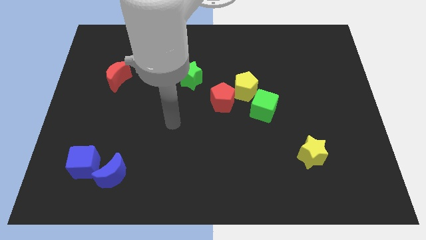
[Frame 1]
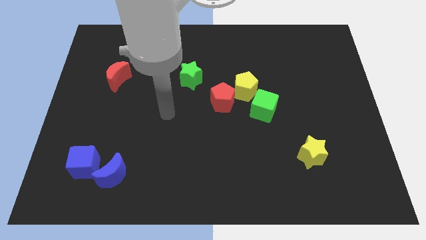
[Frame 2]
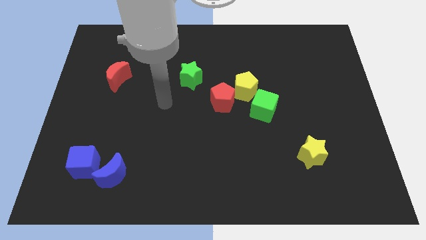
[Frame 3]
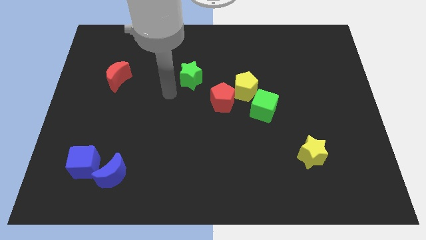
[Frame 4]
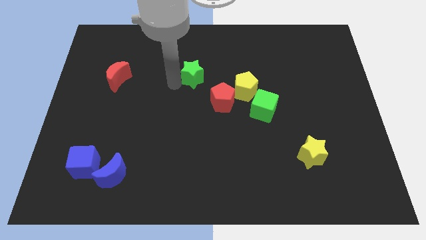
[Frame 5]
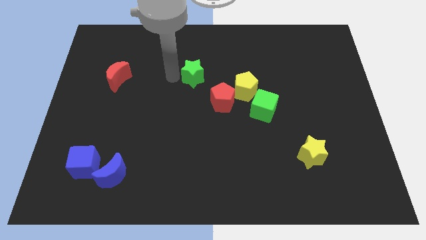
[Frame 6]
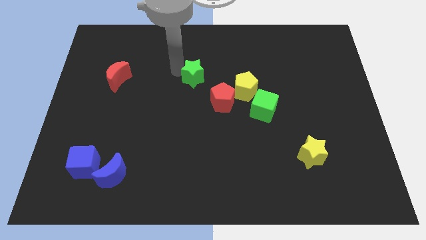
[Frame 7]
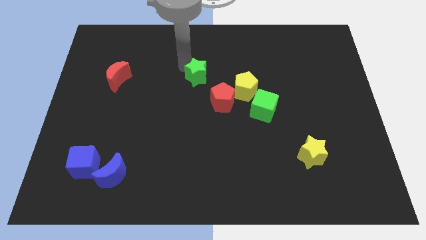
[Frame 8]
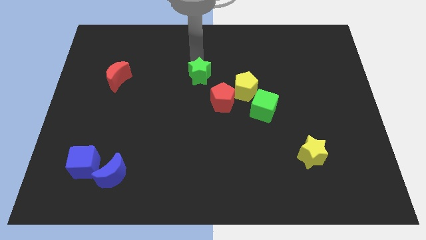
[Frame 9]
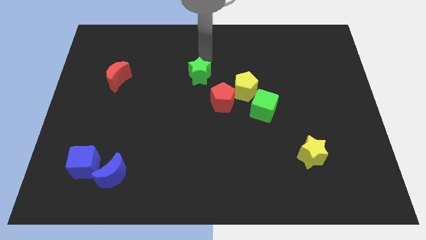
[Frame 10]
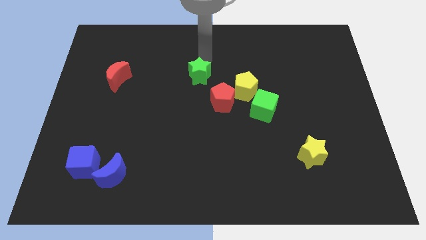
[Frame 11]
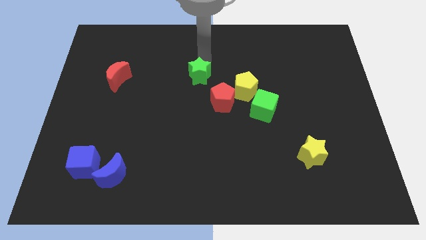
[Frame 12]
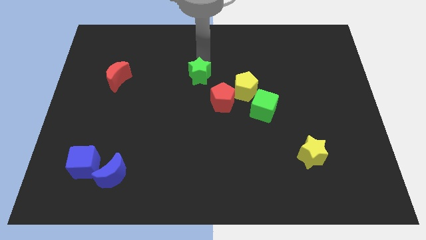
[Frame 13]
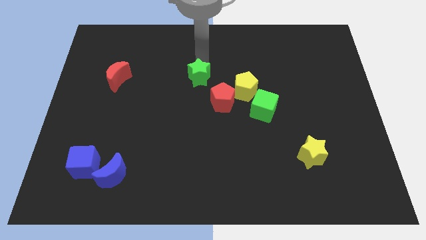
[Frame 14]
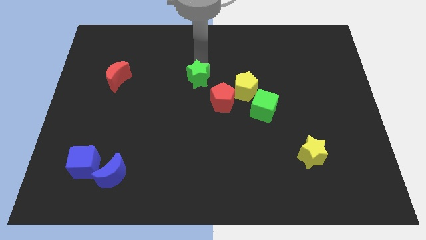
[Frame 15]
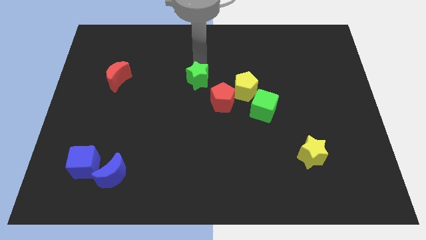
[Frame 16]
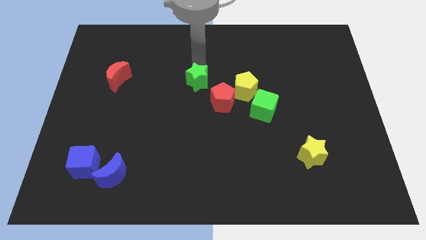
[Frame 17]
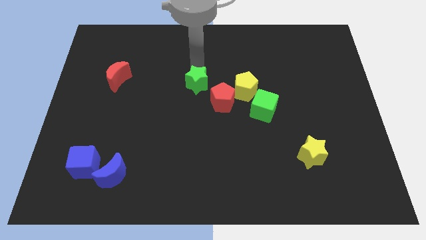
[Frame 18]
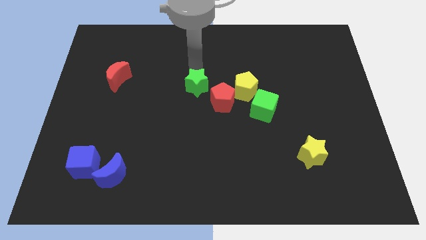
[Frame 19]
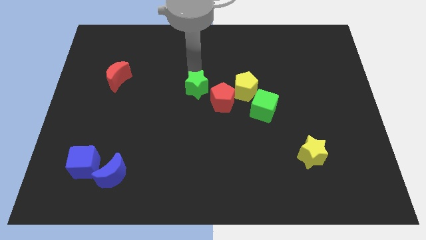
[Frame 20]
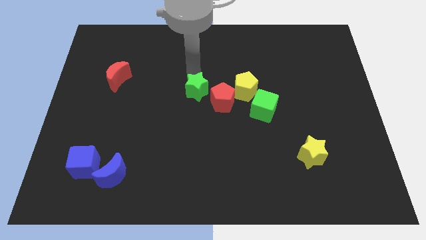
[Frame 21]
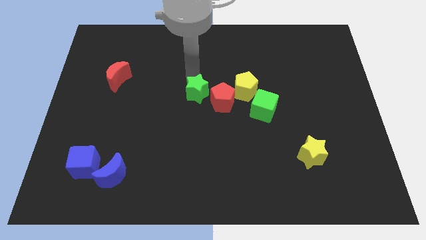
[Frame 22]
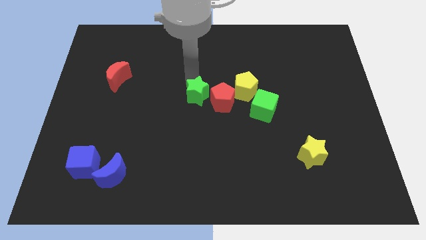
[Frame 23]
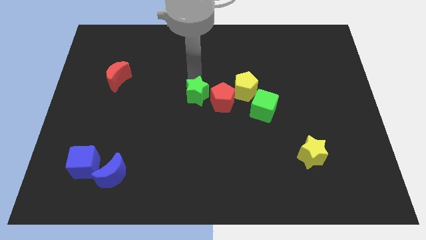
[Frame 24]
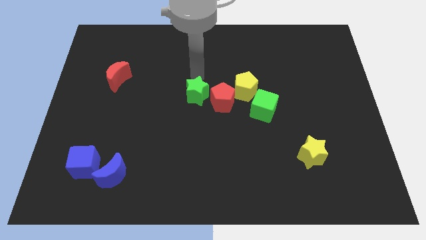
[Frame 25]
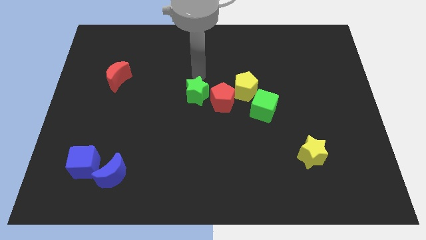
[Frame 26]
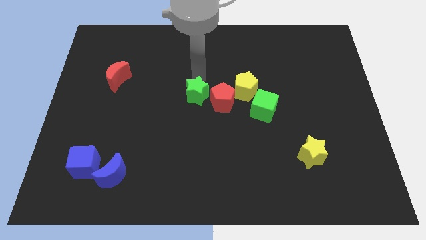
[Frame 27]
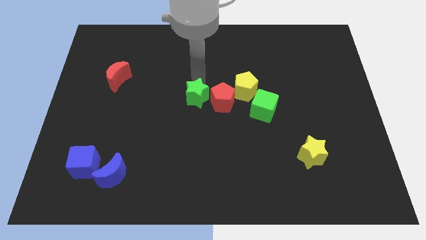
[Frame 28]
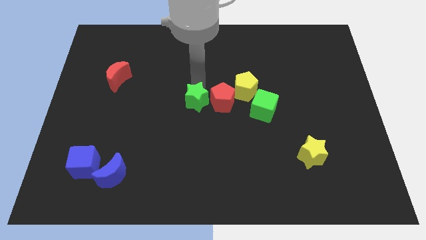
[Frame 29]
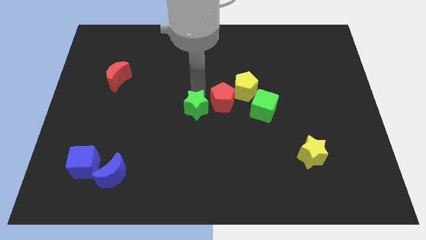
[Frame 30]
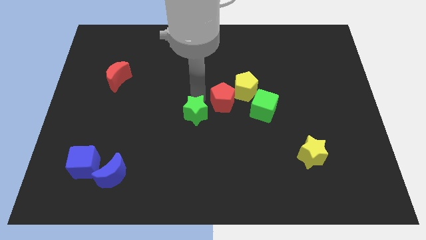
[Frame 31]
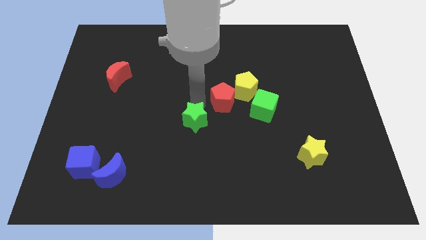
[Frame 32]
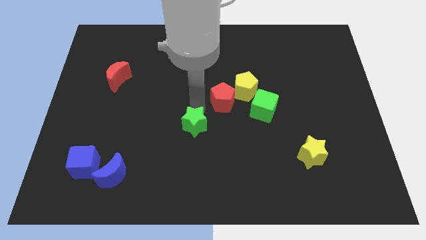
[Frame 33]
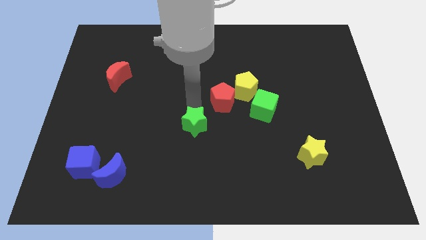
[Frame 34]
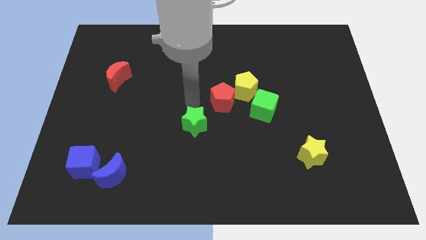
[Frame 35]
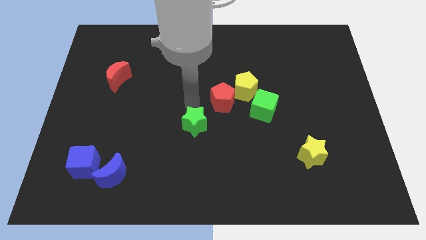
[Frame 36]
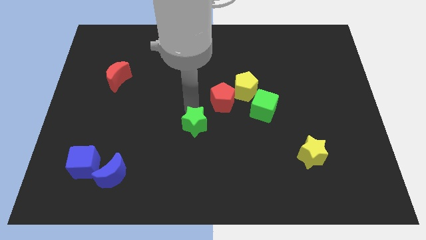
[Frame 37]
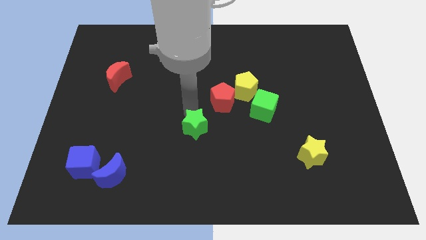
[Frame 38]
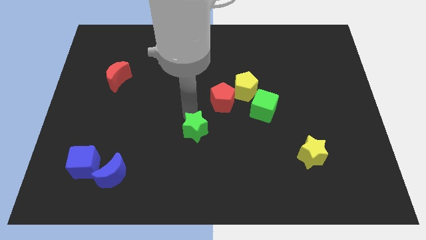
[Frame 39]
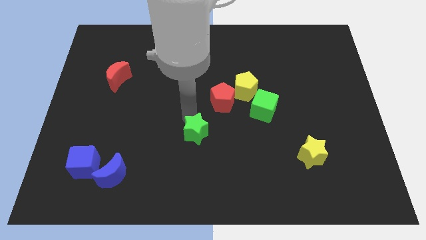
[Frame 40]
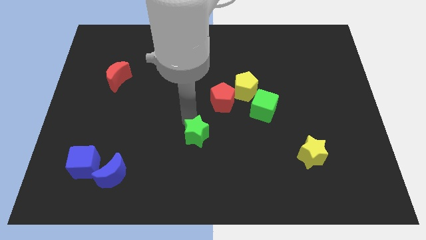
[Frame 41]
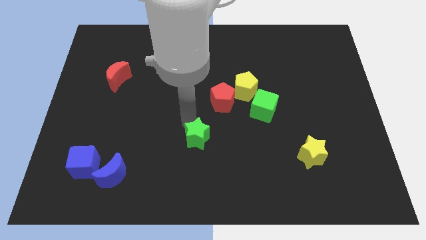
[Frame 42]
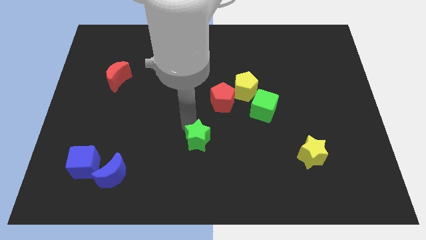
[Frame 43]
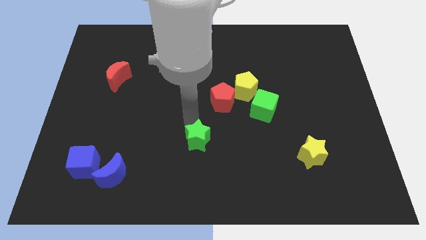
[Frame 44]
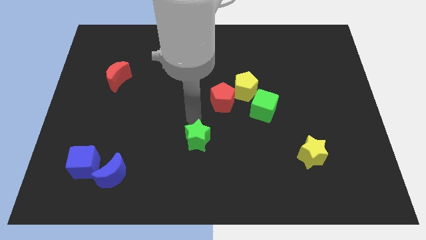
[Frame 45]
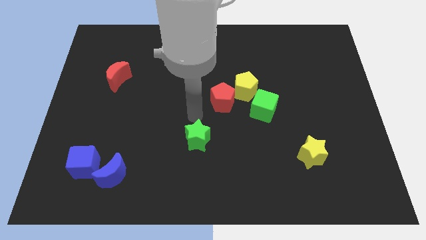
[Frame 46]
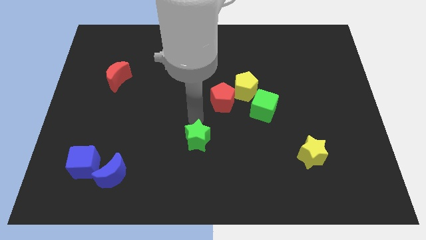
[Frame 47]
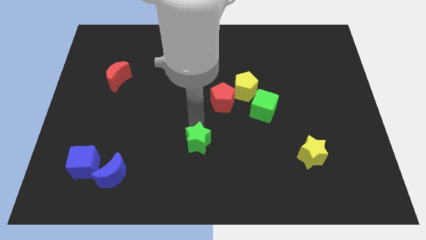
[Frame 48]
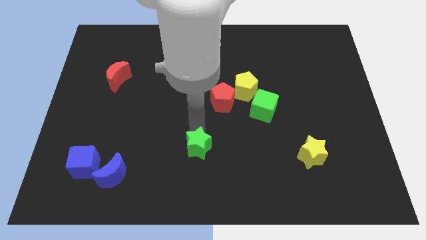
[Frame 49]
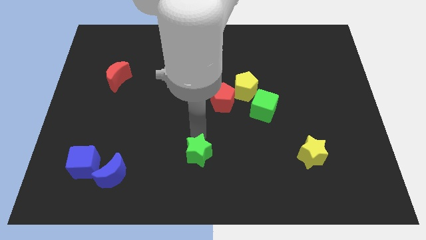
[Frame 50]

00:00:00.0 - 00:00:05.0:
move the green star to the bottom

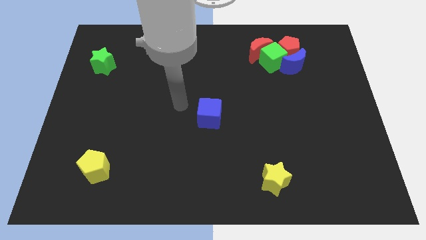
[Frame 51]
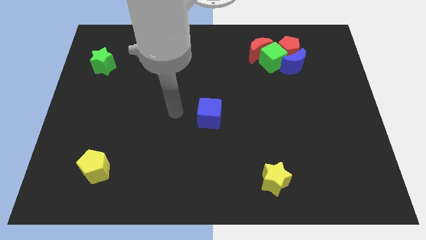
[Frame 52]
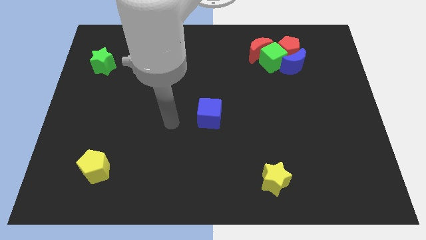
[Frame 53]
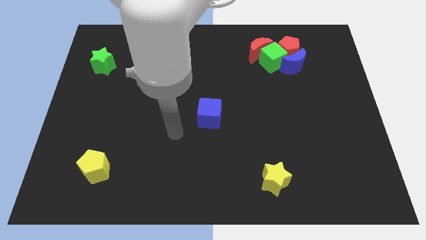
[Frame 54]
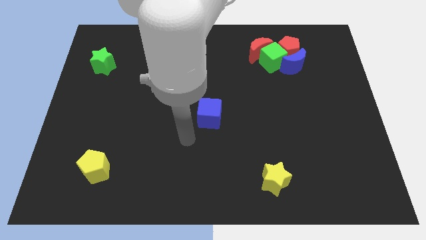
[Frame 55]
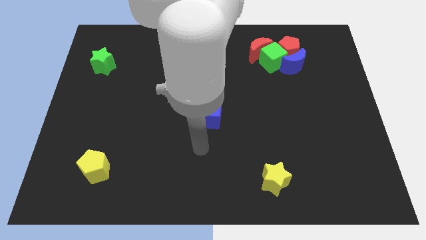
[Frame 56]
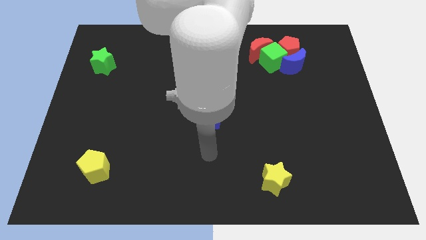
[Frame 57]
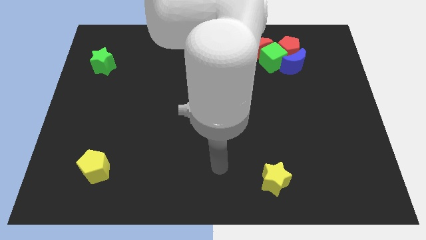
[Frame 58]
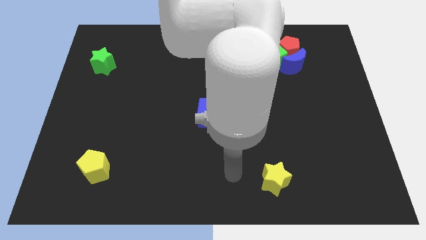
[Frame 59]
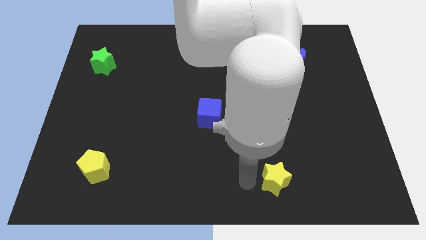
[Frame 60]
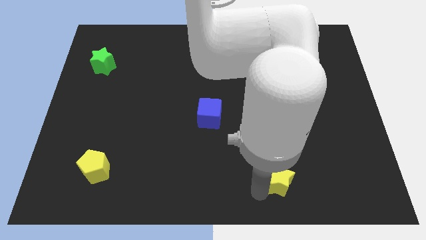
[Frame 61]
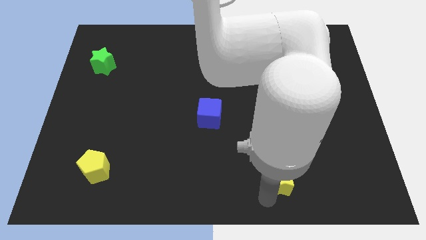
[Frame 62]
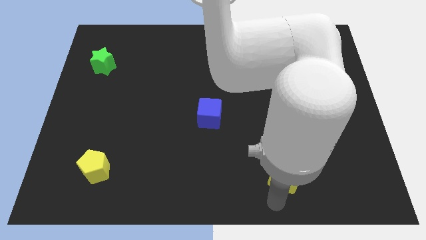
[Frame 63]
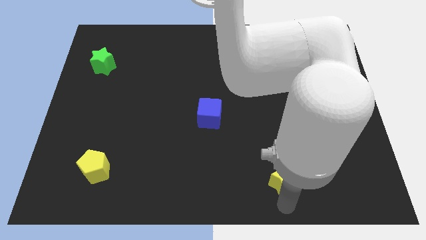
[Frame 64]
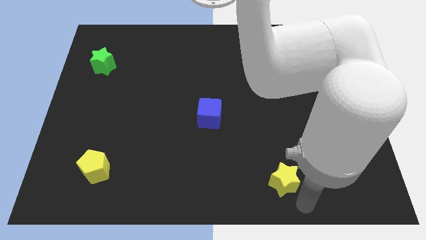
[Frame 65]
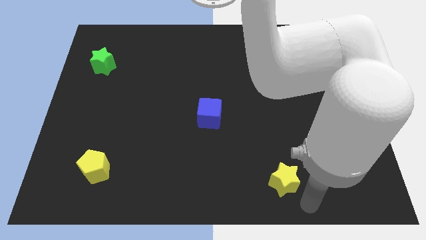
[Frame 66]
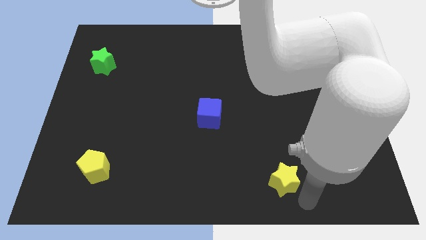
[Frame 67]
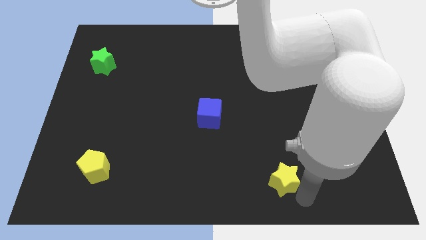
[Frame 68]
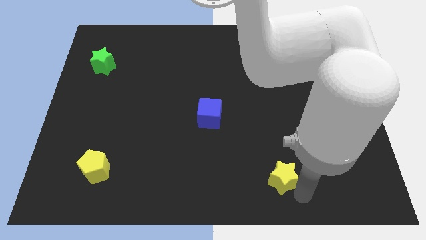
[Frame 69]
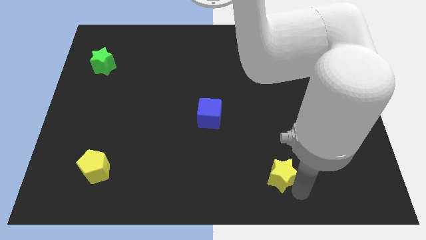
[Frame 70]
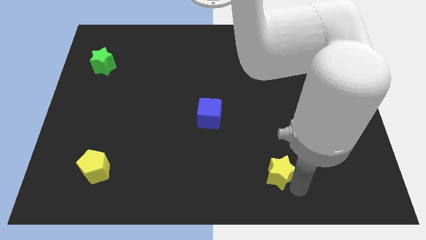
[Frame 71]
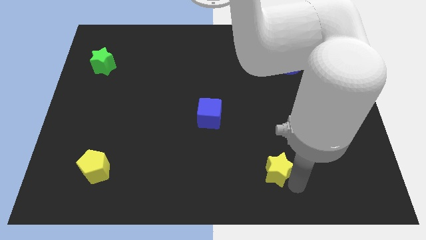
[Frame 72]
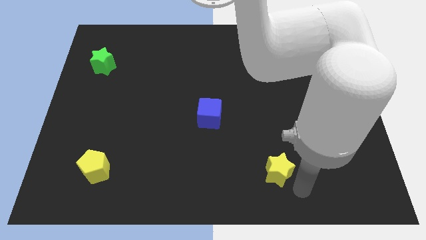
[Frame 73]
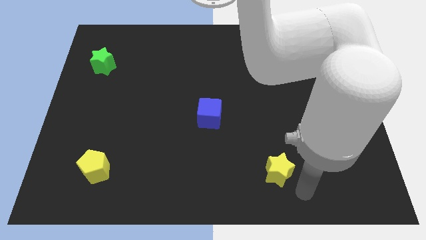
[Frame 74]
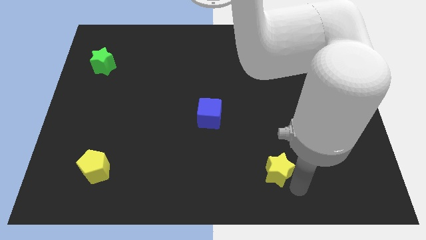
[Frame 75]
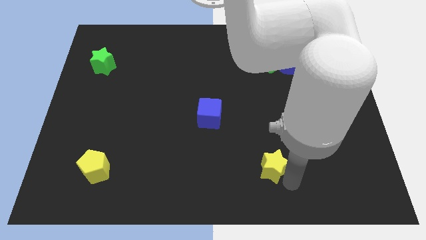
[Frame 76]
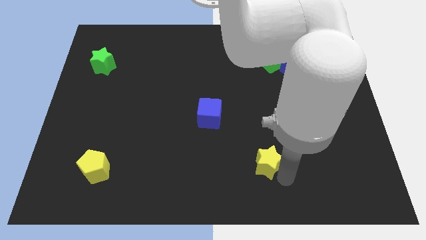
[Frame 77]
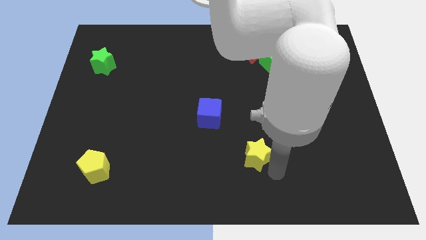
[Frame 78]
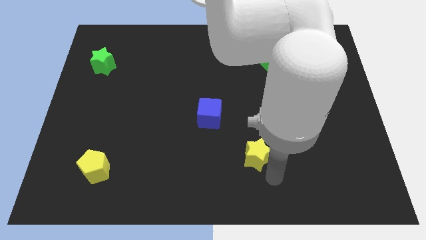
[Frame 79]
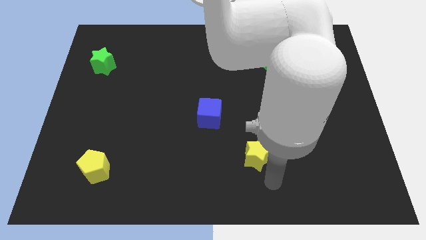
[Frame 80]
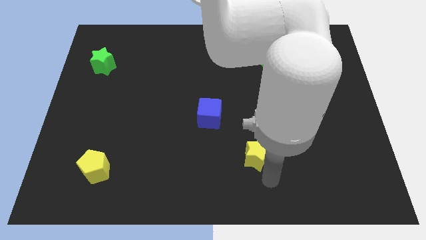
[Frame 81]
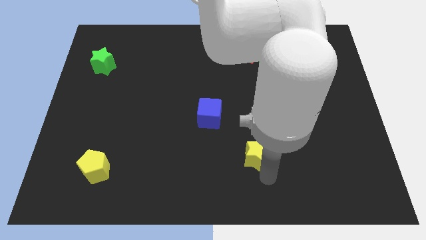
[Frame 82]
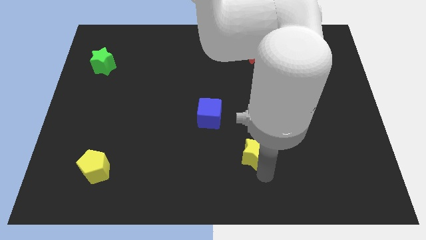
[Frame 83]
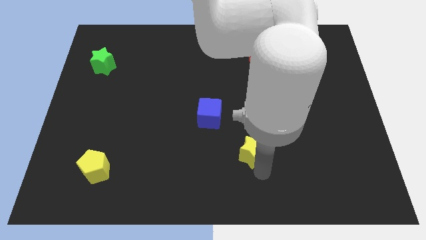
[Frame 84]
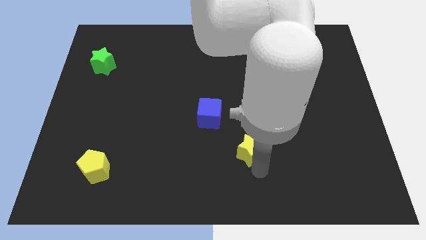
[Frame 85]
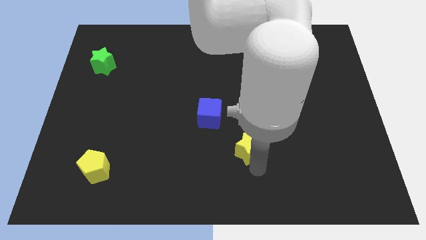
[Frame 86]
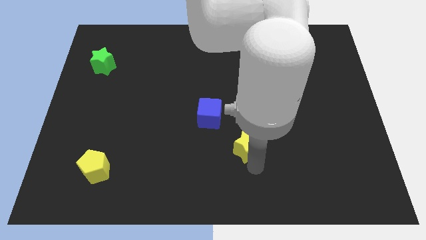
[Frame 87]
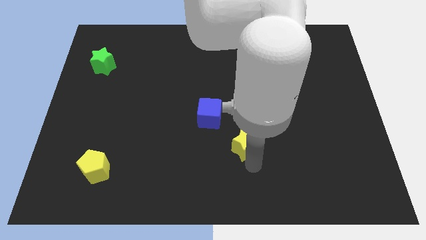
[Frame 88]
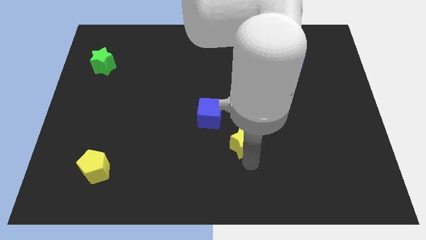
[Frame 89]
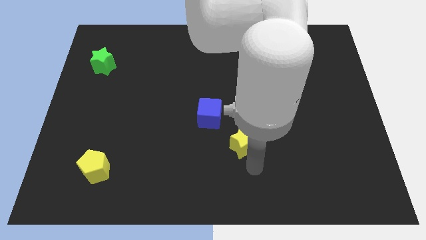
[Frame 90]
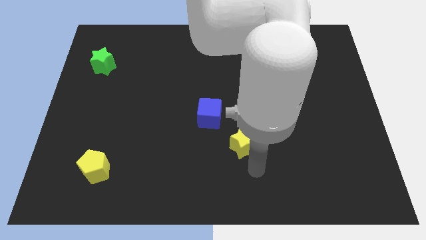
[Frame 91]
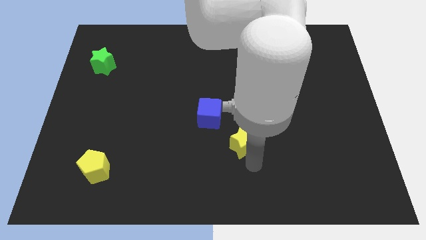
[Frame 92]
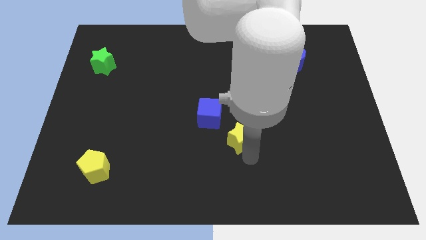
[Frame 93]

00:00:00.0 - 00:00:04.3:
move the yellow star to the middle of the board
